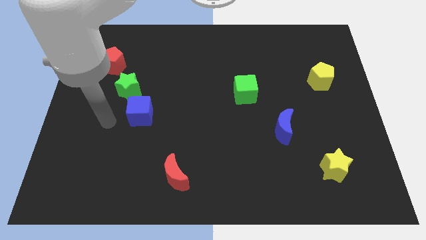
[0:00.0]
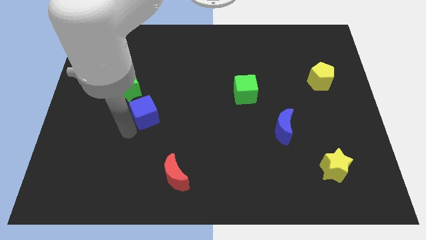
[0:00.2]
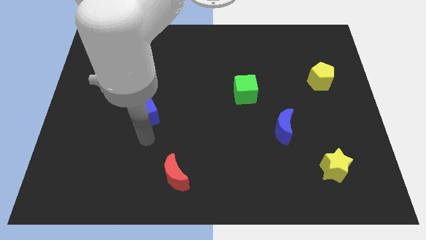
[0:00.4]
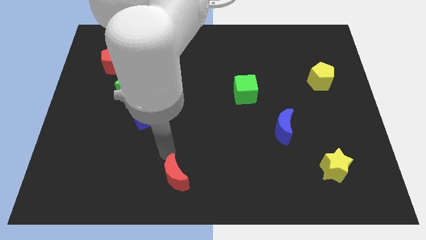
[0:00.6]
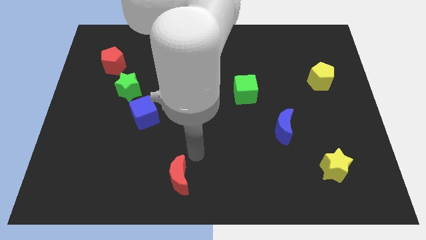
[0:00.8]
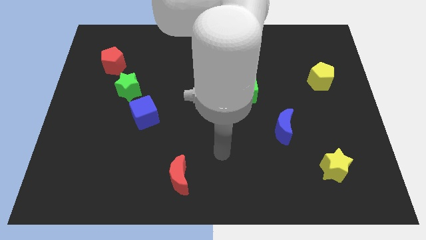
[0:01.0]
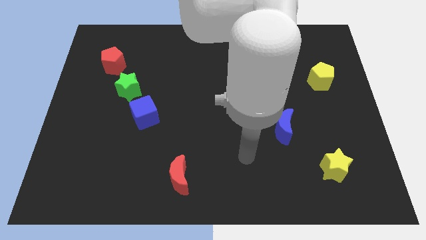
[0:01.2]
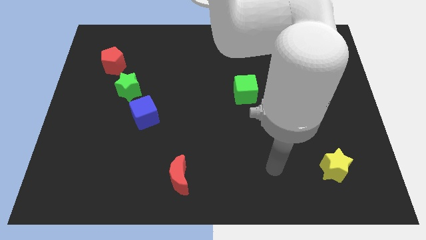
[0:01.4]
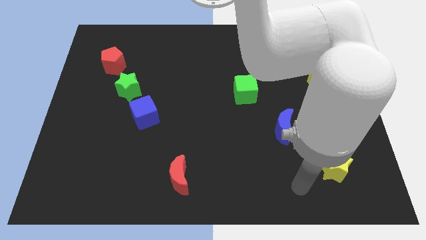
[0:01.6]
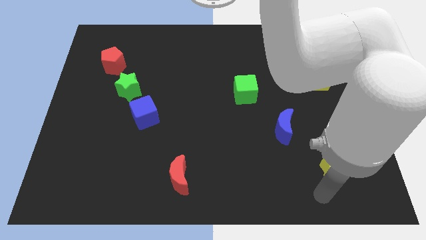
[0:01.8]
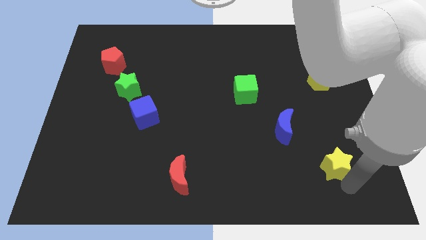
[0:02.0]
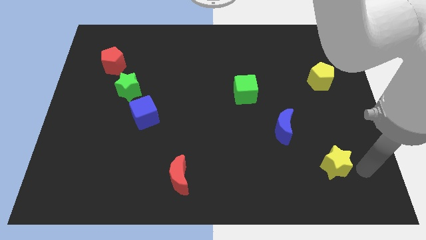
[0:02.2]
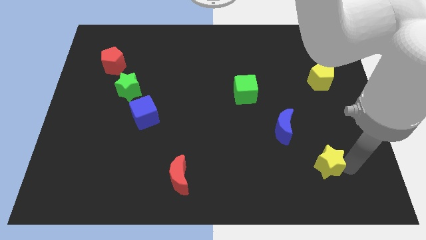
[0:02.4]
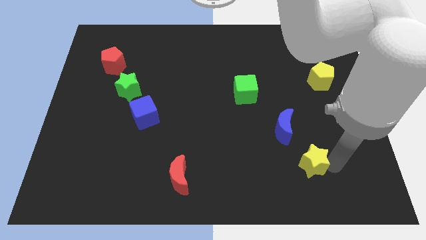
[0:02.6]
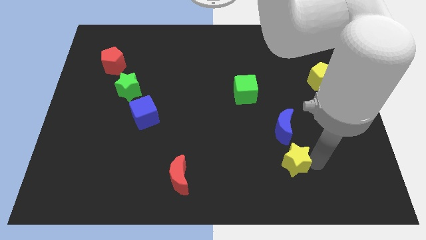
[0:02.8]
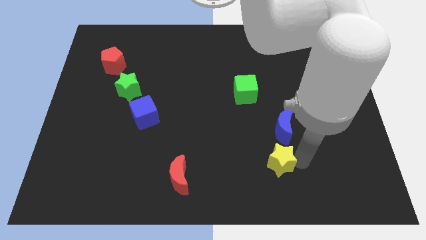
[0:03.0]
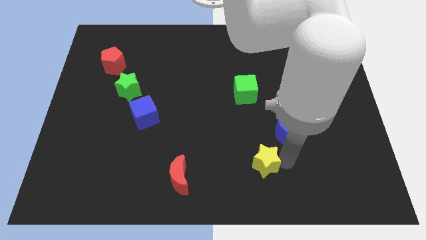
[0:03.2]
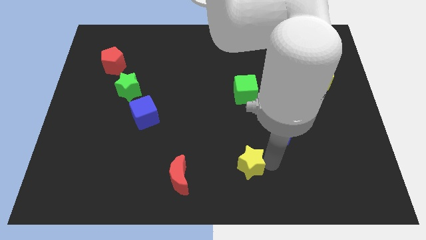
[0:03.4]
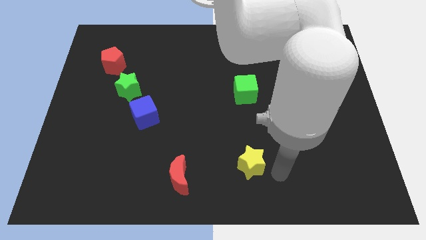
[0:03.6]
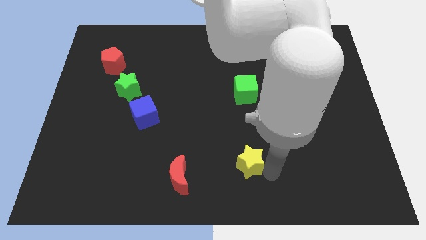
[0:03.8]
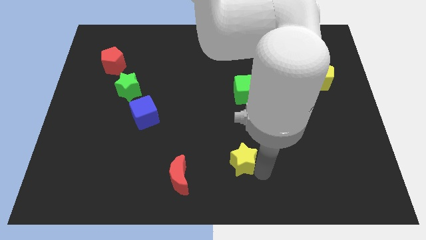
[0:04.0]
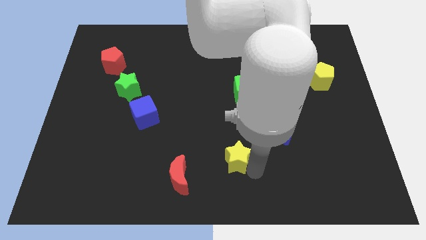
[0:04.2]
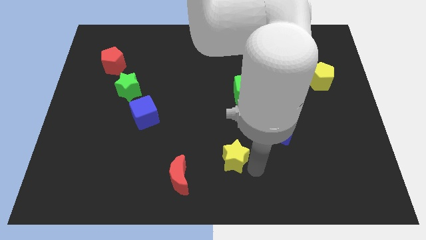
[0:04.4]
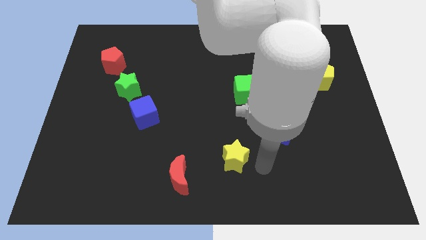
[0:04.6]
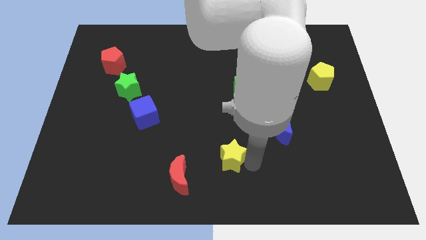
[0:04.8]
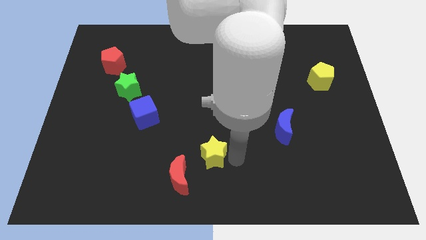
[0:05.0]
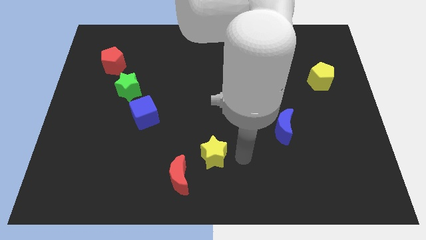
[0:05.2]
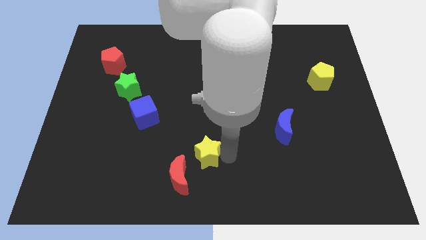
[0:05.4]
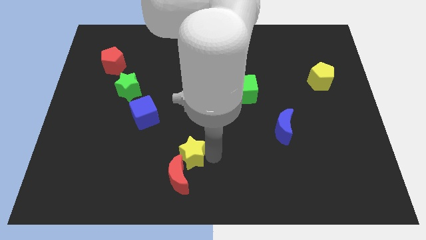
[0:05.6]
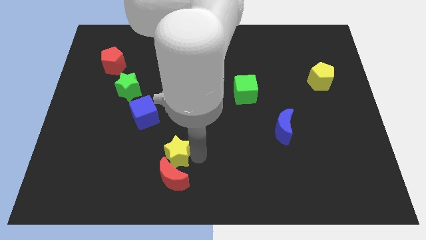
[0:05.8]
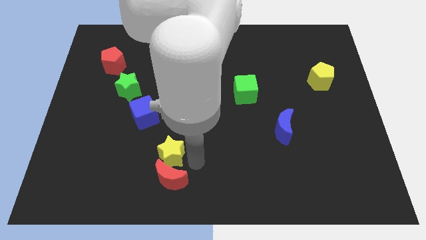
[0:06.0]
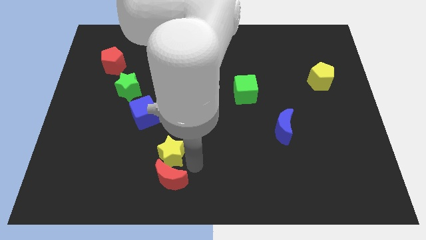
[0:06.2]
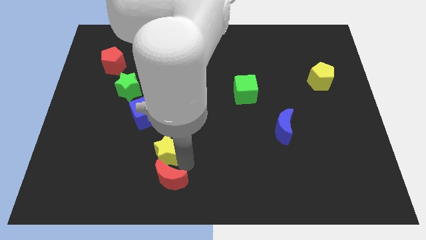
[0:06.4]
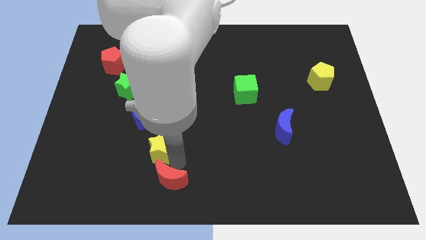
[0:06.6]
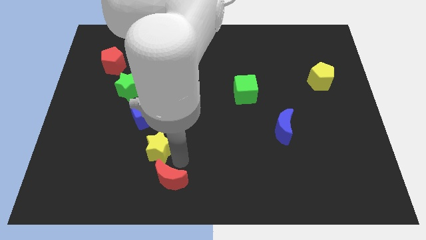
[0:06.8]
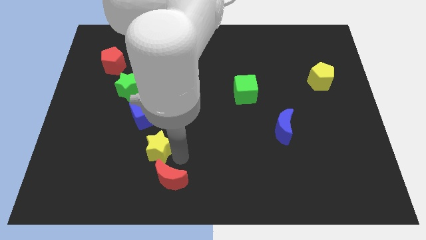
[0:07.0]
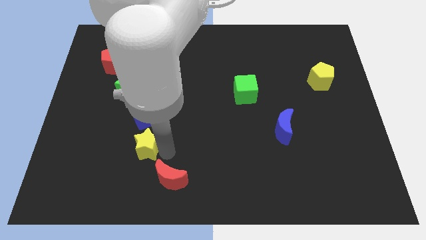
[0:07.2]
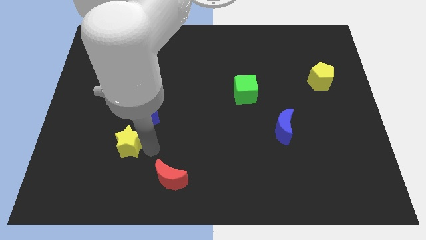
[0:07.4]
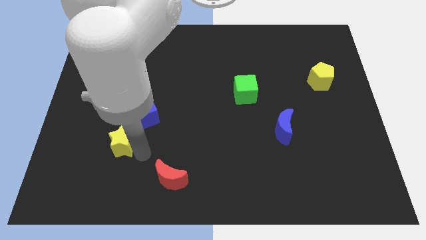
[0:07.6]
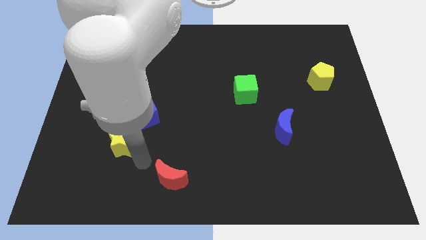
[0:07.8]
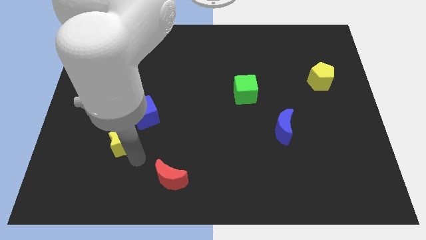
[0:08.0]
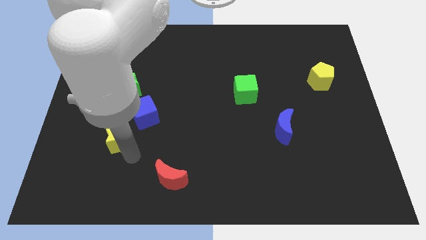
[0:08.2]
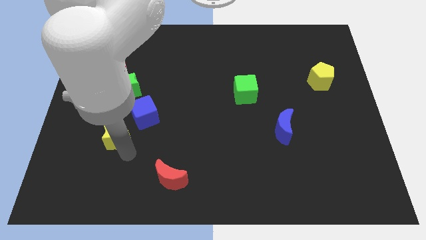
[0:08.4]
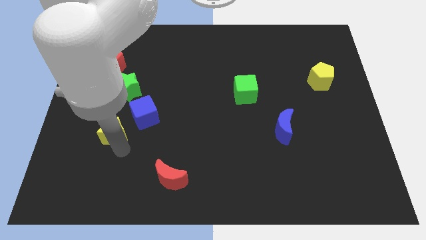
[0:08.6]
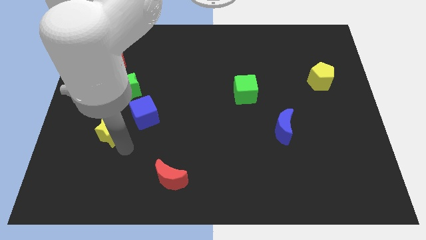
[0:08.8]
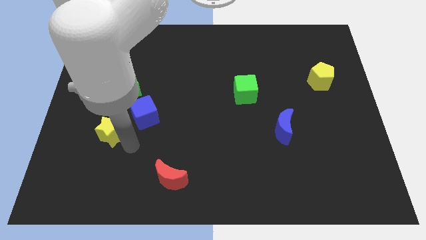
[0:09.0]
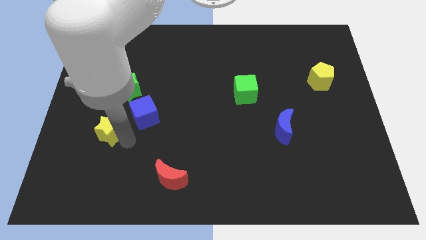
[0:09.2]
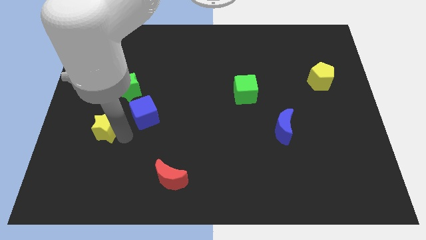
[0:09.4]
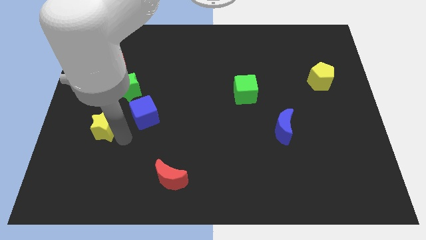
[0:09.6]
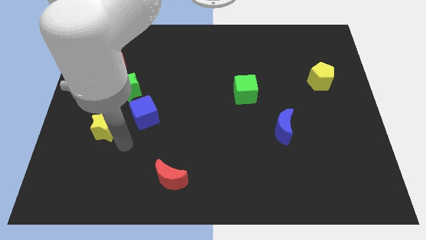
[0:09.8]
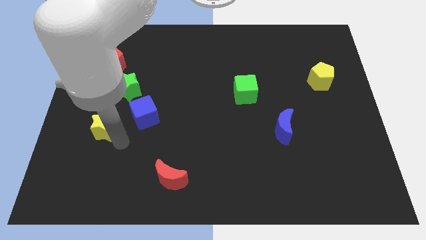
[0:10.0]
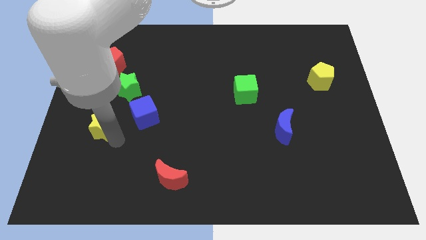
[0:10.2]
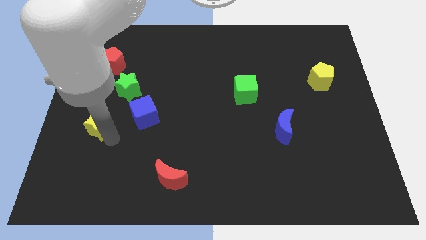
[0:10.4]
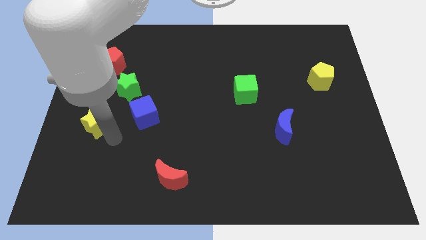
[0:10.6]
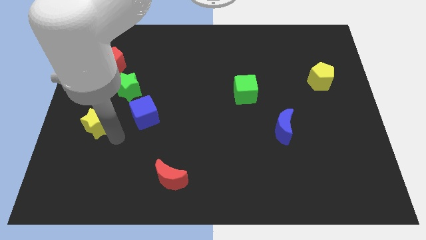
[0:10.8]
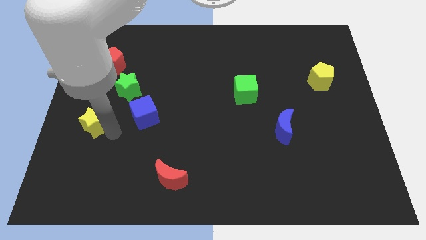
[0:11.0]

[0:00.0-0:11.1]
move the yellow star to the left side

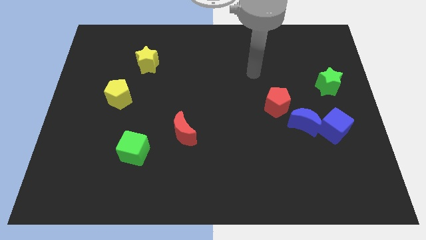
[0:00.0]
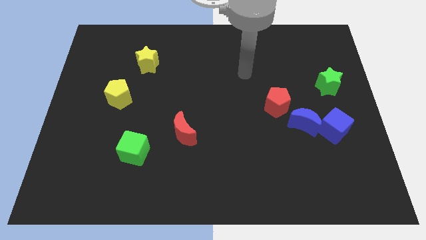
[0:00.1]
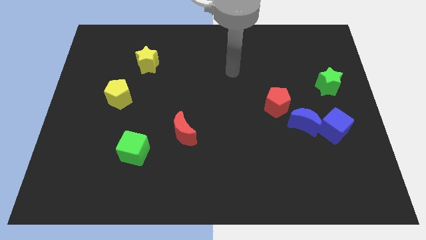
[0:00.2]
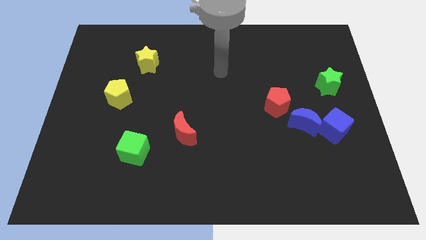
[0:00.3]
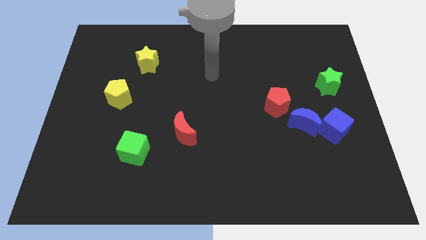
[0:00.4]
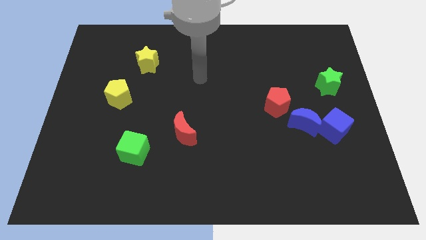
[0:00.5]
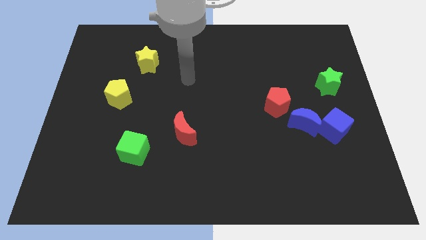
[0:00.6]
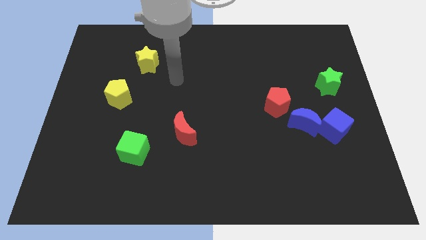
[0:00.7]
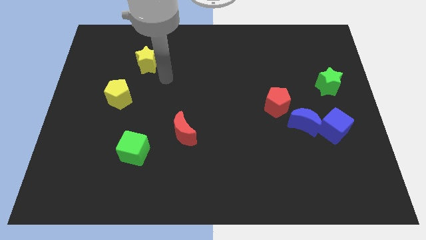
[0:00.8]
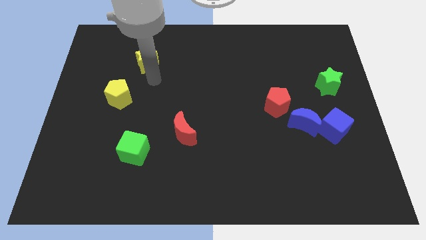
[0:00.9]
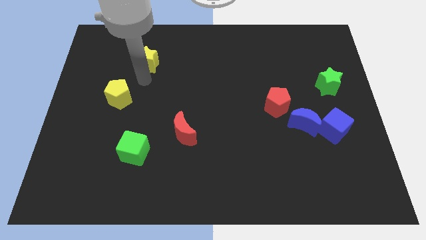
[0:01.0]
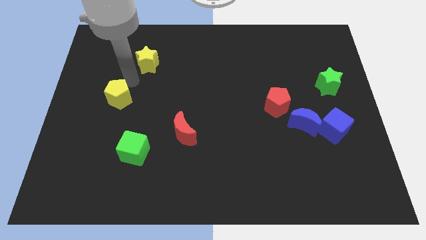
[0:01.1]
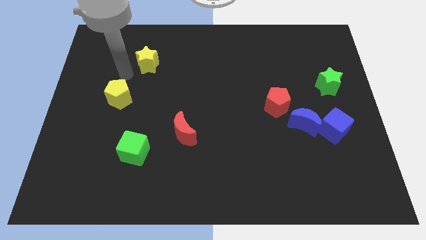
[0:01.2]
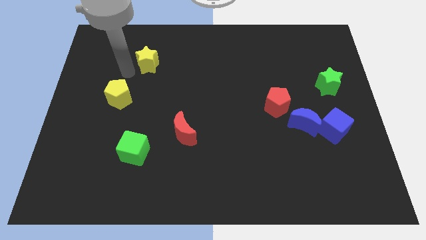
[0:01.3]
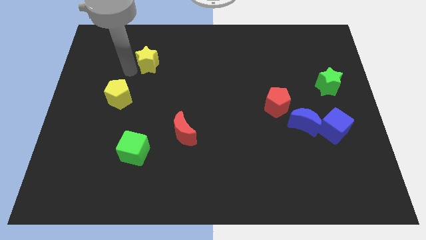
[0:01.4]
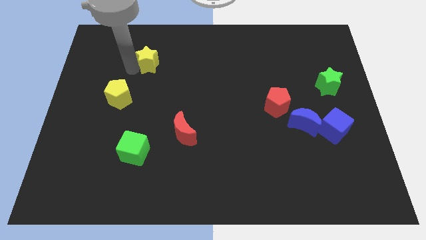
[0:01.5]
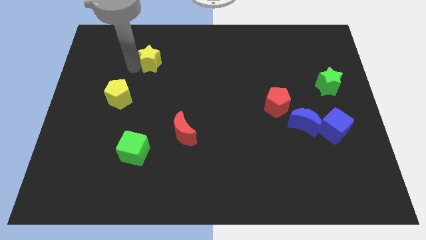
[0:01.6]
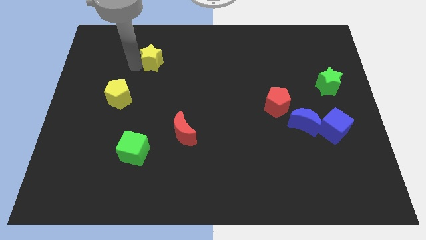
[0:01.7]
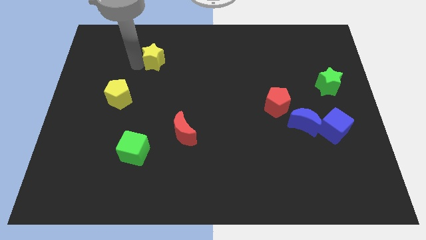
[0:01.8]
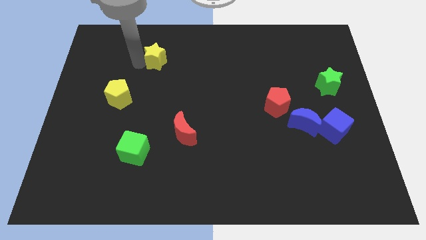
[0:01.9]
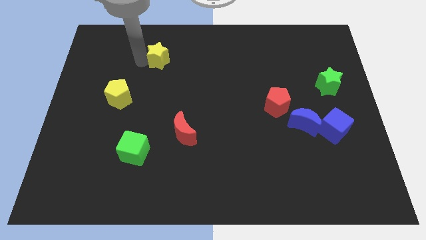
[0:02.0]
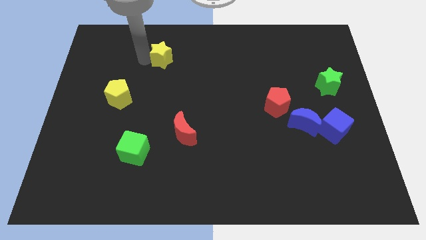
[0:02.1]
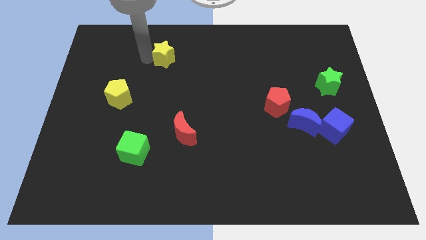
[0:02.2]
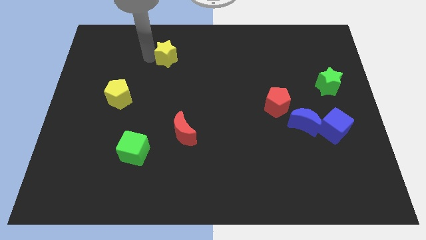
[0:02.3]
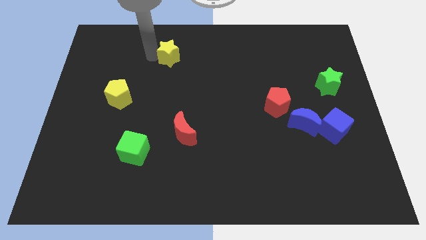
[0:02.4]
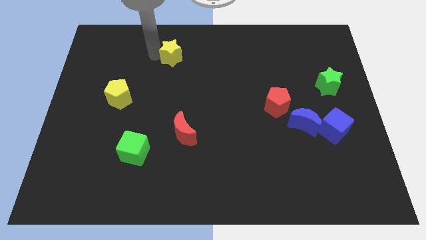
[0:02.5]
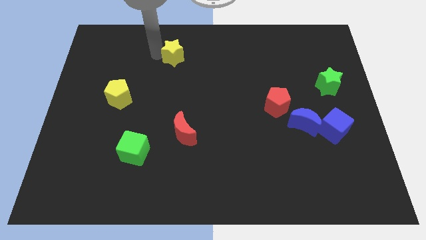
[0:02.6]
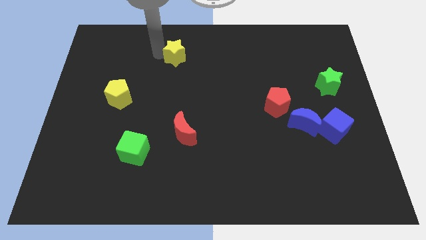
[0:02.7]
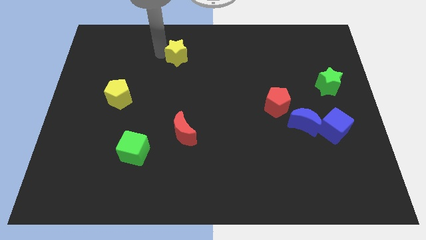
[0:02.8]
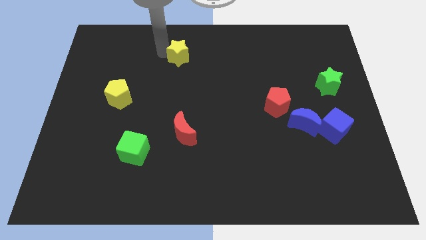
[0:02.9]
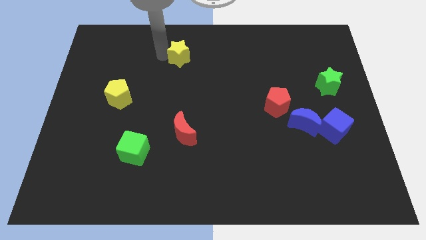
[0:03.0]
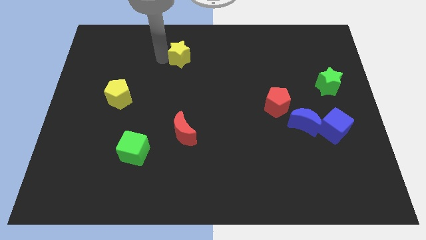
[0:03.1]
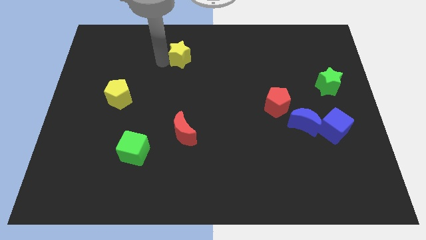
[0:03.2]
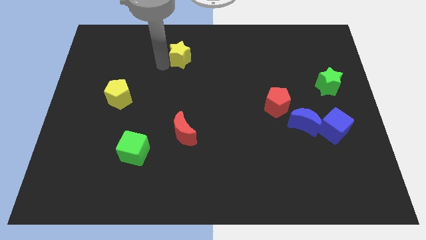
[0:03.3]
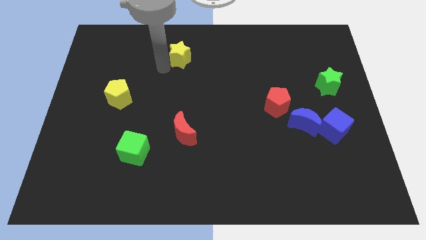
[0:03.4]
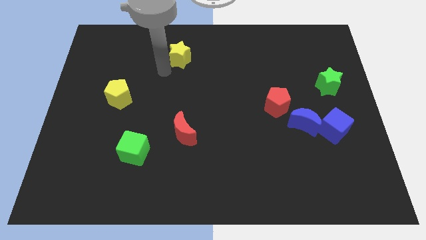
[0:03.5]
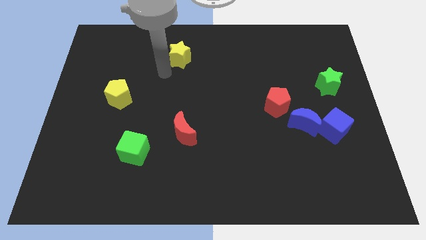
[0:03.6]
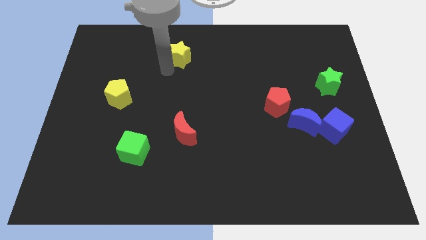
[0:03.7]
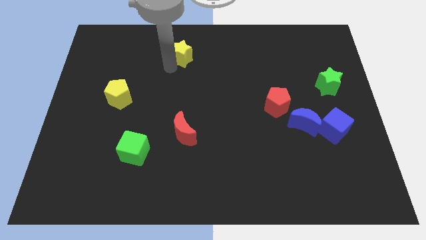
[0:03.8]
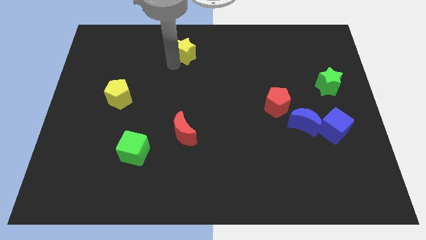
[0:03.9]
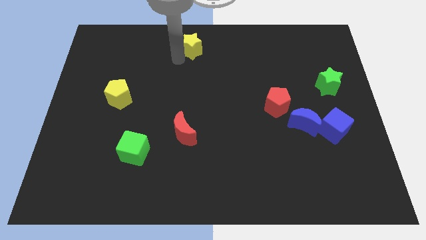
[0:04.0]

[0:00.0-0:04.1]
slide the yellow star to the top side
